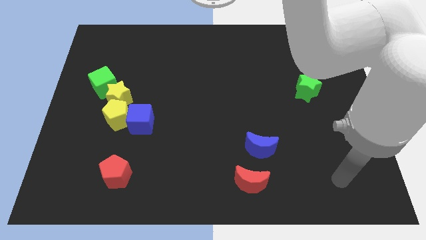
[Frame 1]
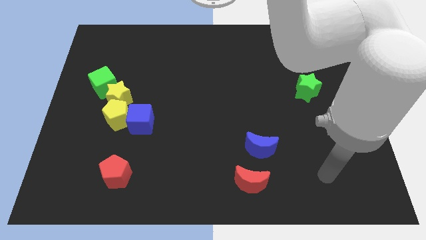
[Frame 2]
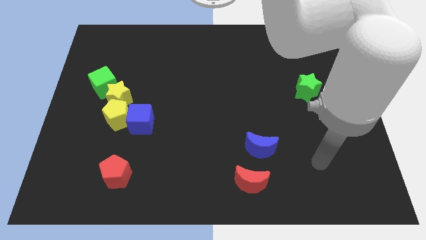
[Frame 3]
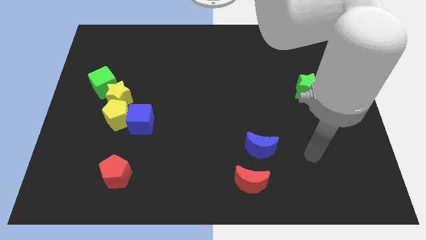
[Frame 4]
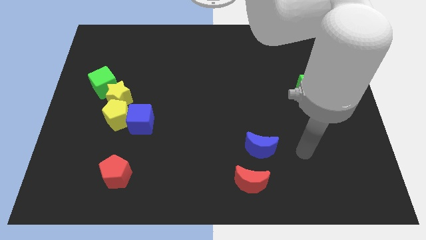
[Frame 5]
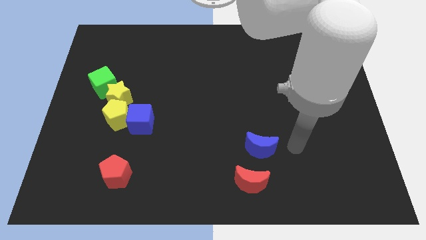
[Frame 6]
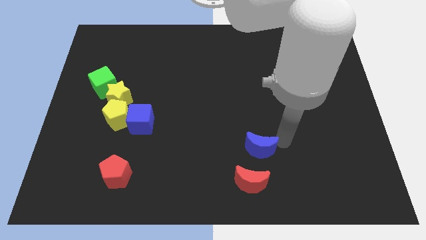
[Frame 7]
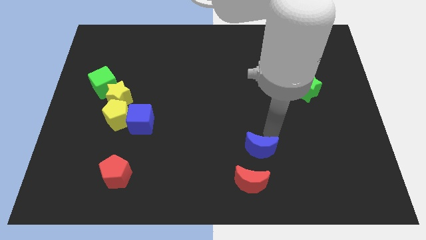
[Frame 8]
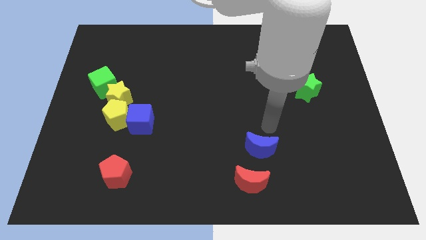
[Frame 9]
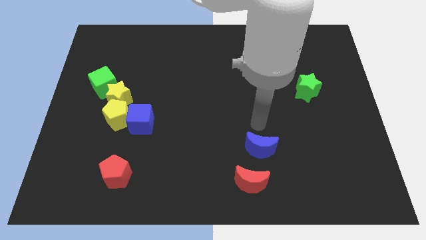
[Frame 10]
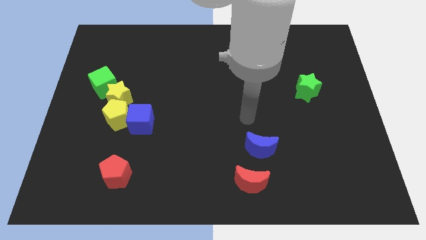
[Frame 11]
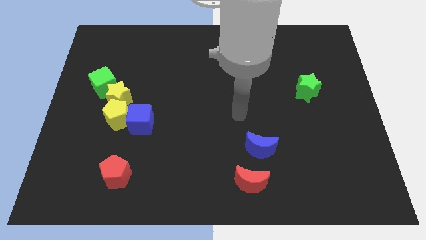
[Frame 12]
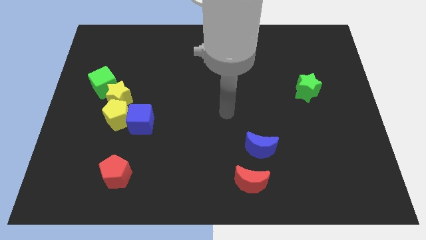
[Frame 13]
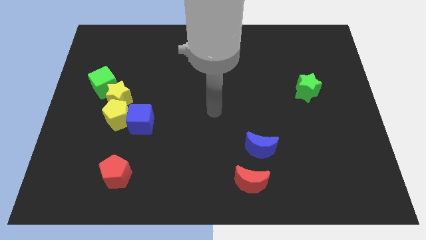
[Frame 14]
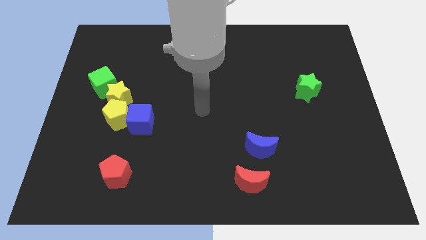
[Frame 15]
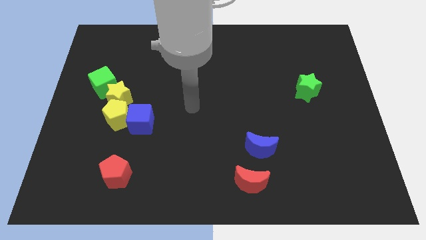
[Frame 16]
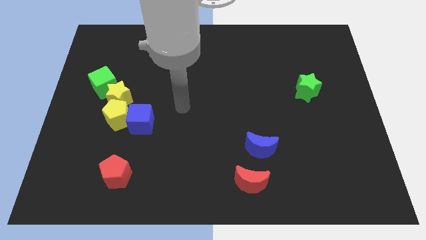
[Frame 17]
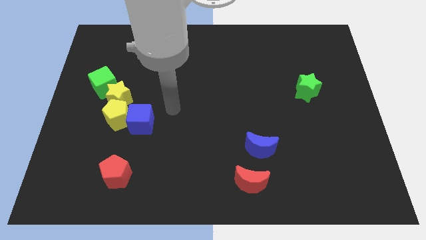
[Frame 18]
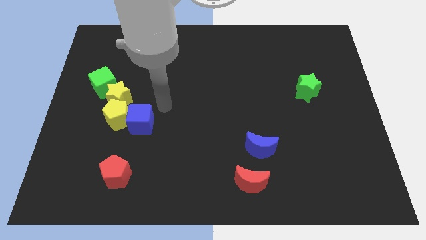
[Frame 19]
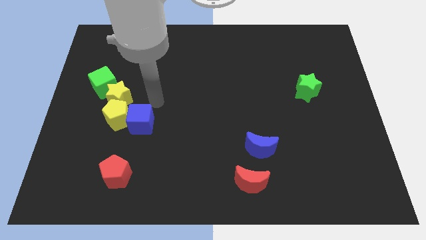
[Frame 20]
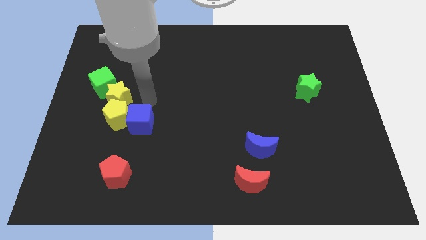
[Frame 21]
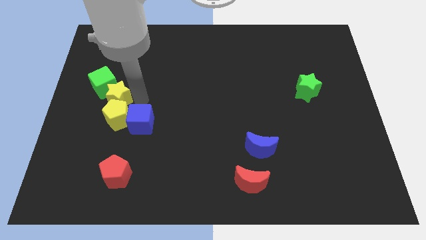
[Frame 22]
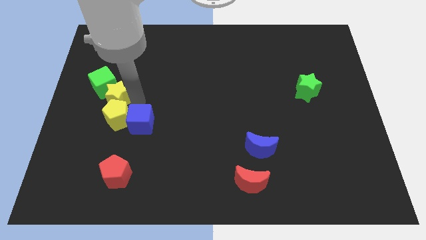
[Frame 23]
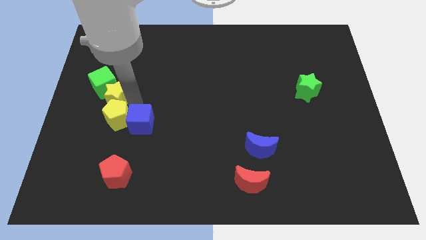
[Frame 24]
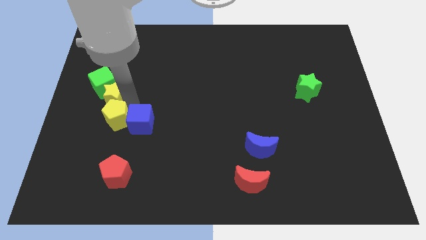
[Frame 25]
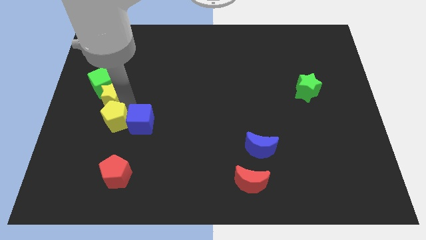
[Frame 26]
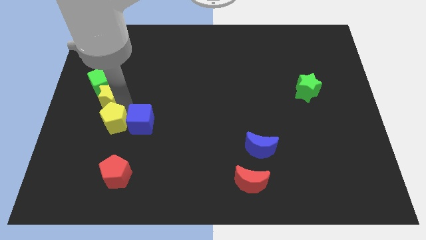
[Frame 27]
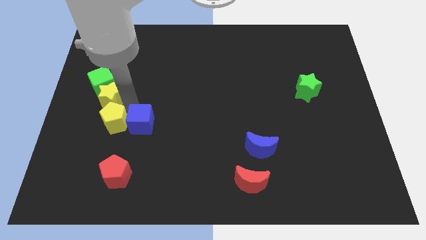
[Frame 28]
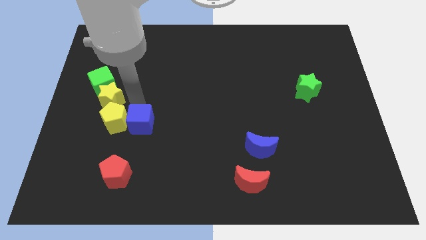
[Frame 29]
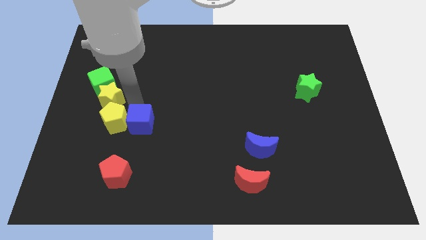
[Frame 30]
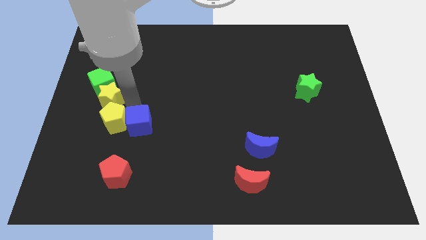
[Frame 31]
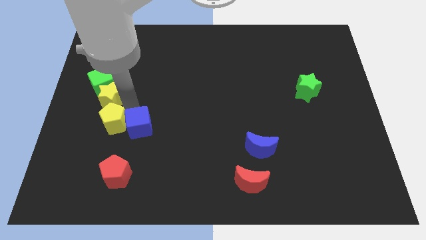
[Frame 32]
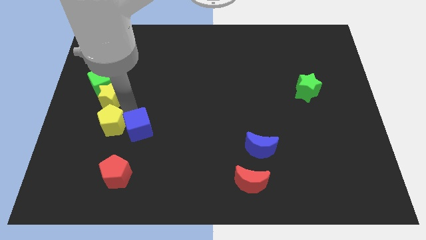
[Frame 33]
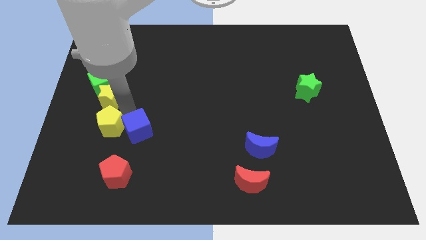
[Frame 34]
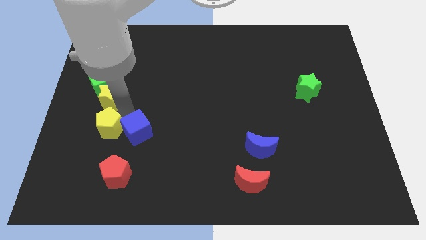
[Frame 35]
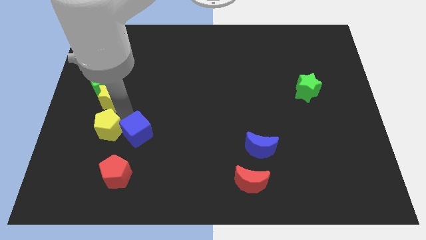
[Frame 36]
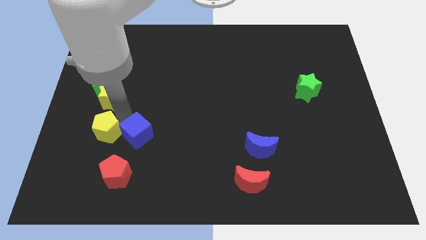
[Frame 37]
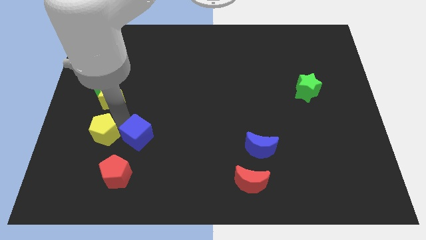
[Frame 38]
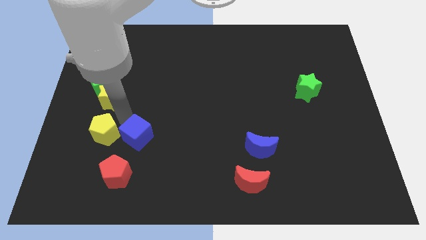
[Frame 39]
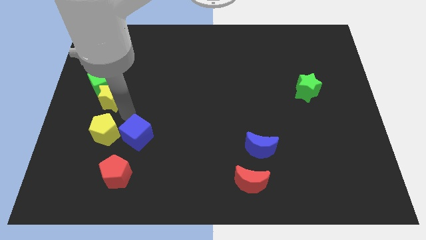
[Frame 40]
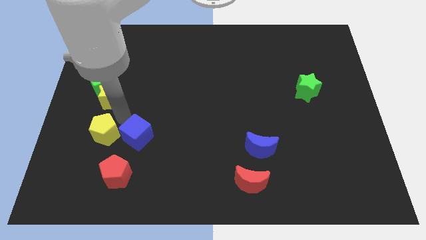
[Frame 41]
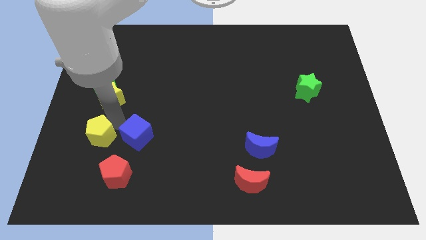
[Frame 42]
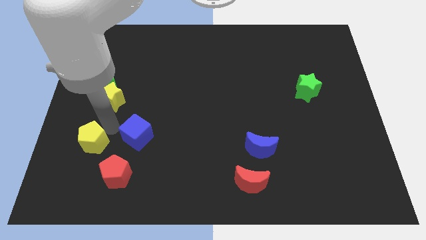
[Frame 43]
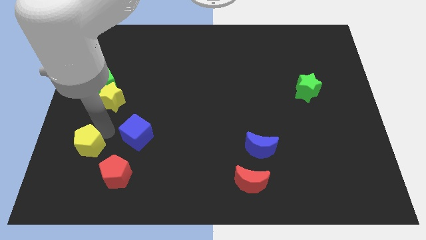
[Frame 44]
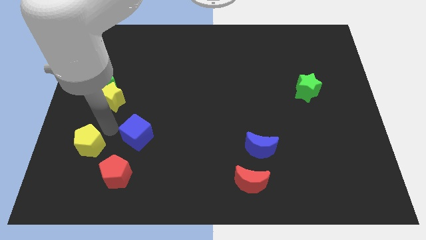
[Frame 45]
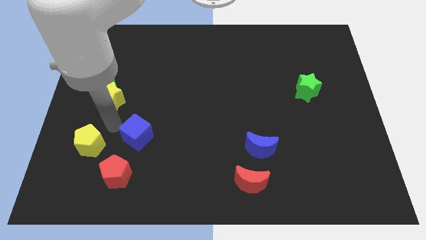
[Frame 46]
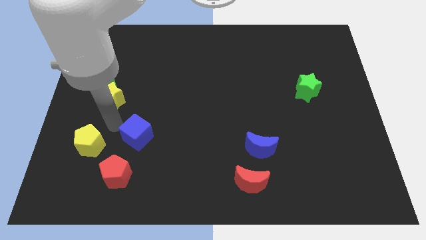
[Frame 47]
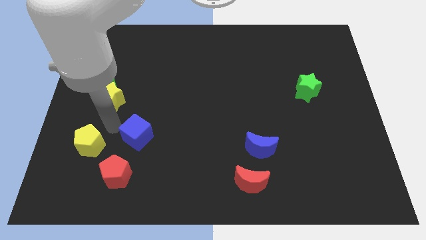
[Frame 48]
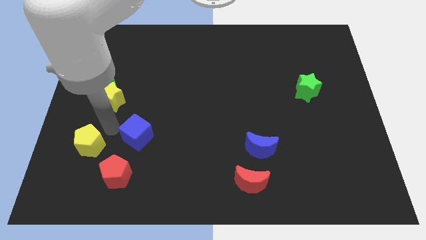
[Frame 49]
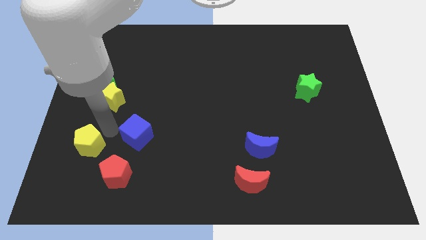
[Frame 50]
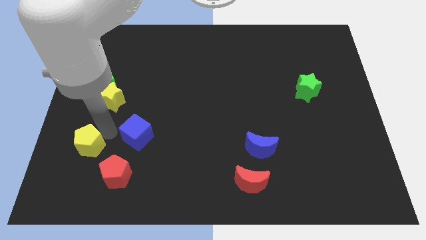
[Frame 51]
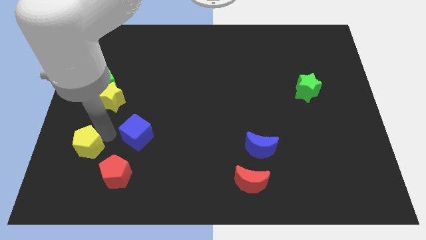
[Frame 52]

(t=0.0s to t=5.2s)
pull the yellow pentagon apart from the blue cube and yellow star

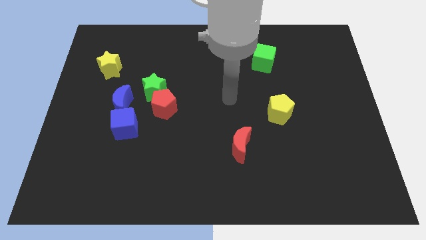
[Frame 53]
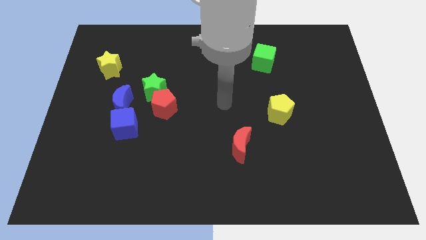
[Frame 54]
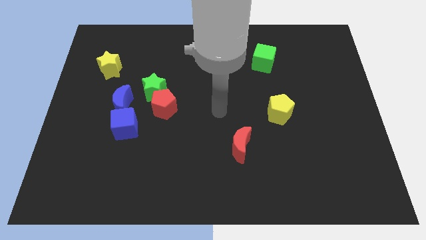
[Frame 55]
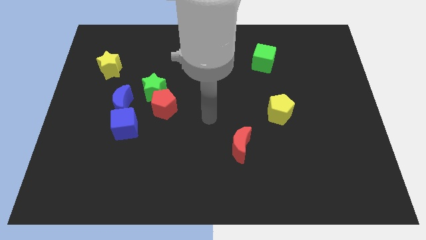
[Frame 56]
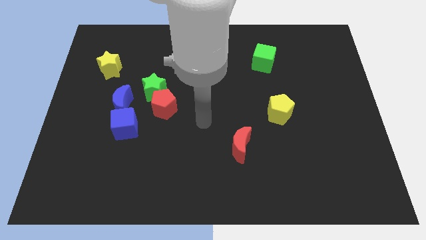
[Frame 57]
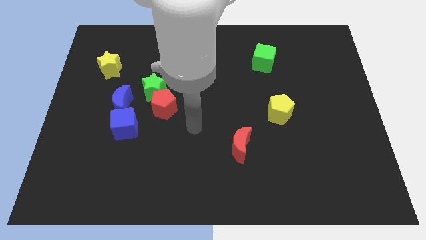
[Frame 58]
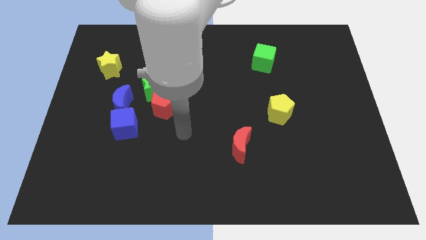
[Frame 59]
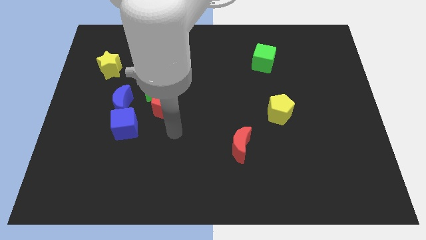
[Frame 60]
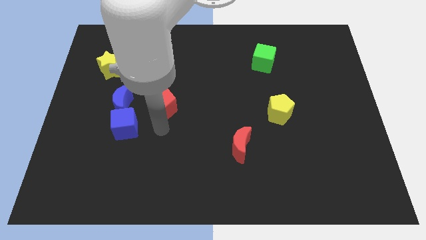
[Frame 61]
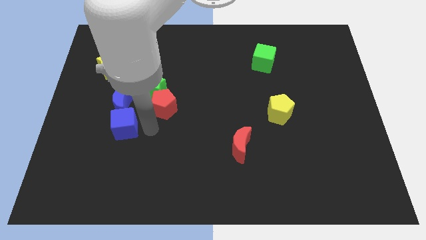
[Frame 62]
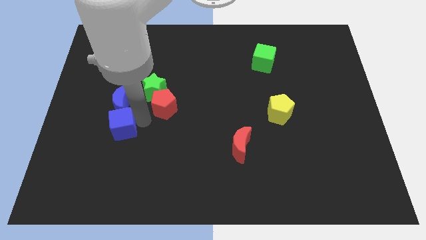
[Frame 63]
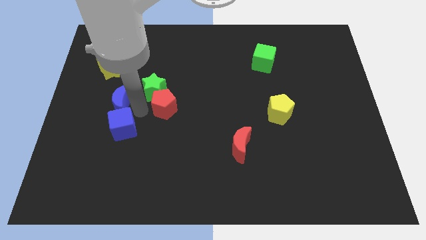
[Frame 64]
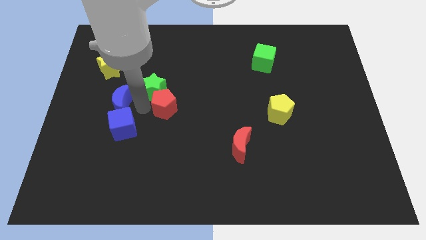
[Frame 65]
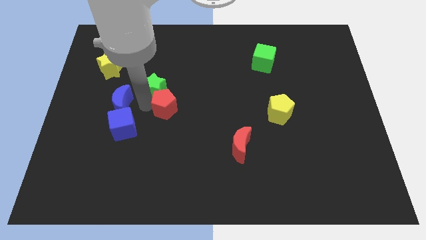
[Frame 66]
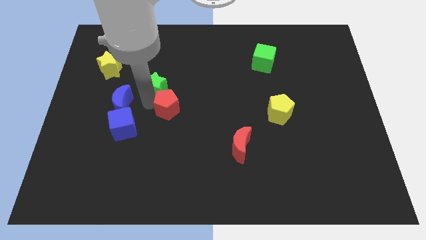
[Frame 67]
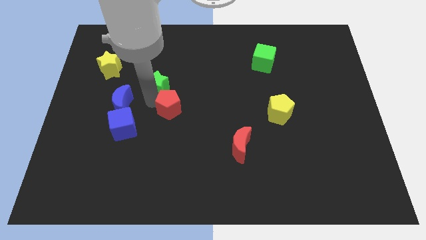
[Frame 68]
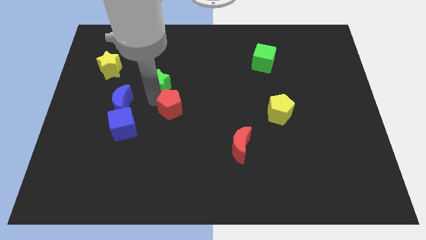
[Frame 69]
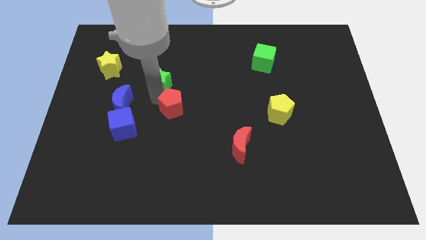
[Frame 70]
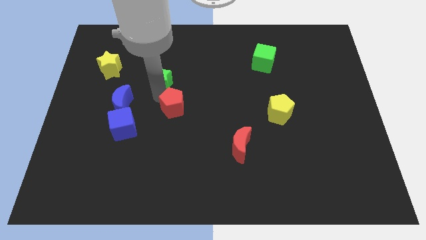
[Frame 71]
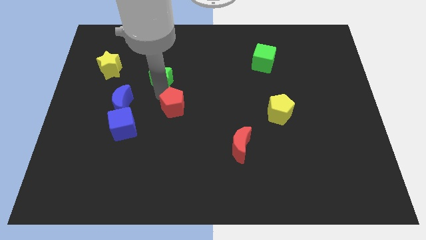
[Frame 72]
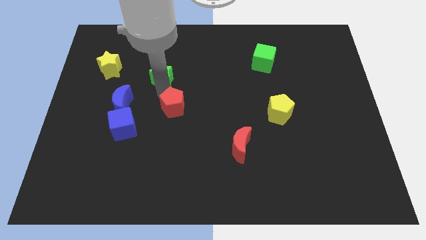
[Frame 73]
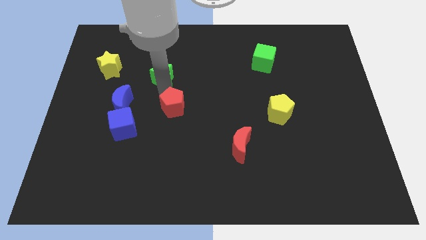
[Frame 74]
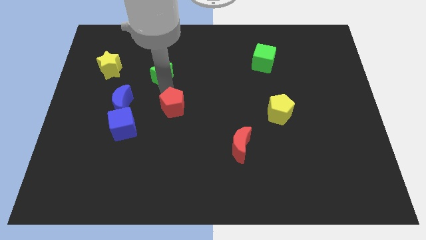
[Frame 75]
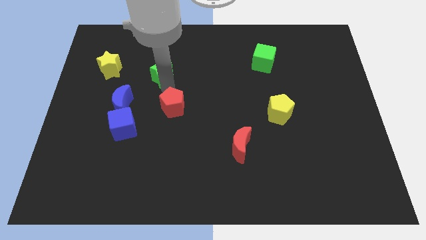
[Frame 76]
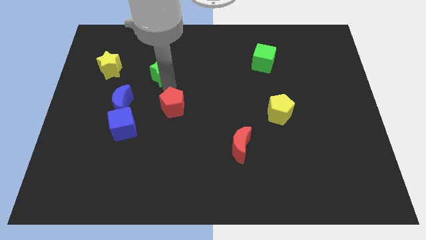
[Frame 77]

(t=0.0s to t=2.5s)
move the green star away from the red pentagon and blue moon

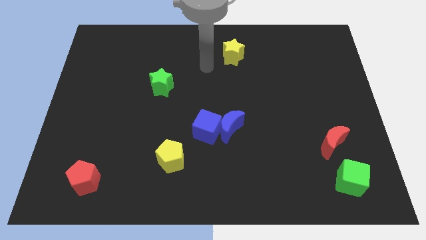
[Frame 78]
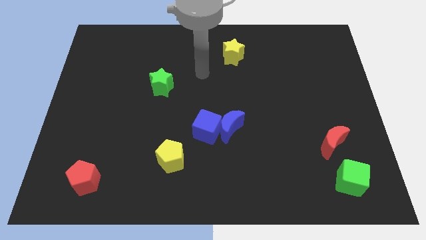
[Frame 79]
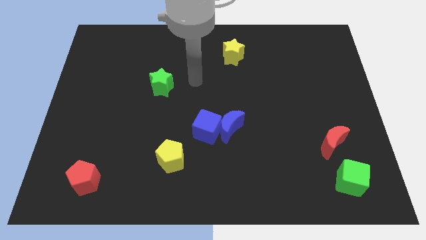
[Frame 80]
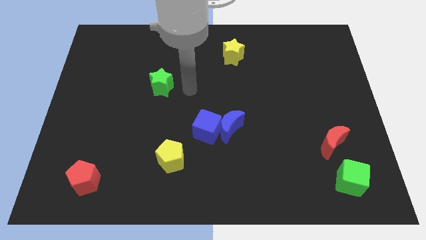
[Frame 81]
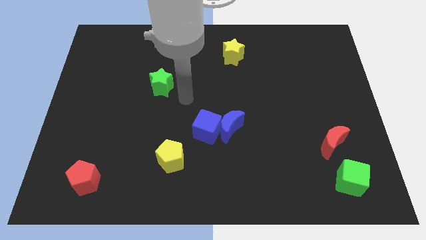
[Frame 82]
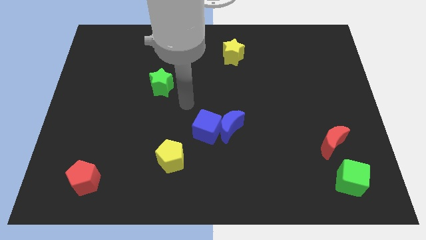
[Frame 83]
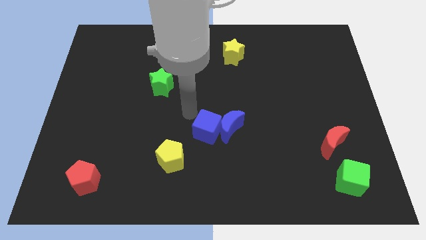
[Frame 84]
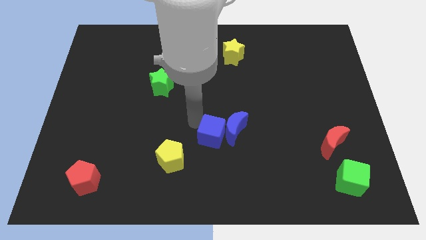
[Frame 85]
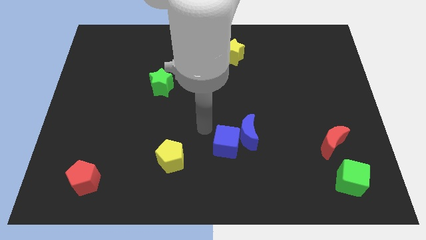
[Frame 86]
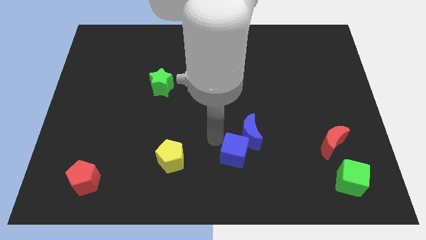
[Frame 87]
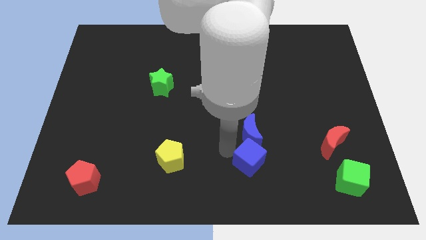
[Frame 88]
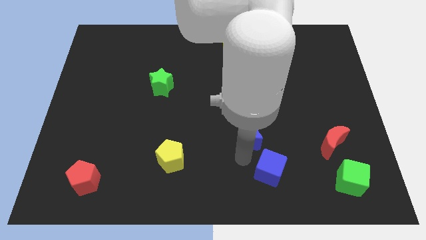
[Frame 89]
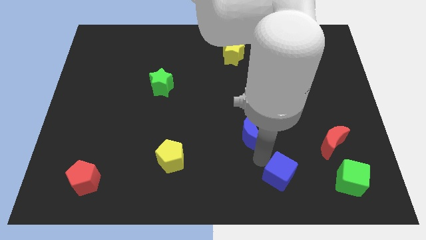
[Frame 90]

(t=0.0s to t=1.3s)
move the blue moon away from the blue cube

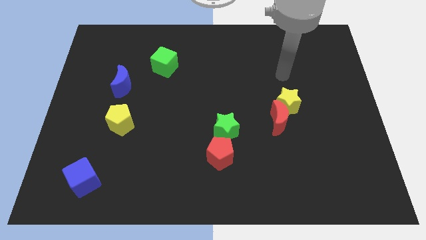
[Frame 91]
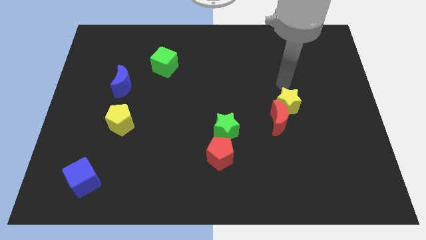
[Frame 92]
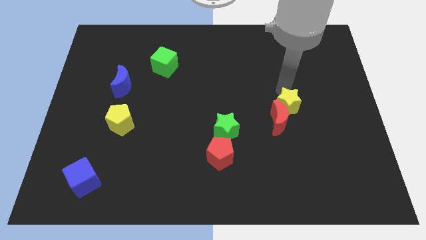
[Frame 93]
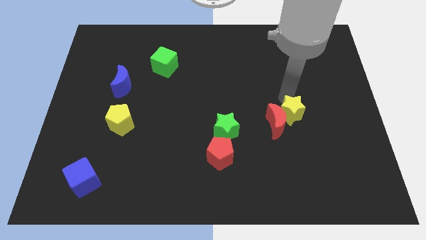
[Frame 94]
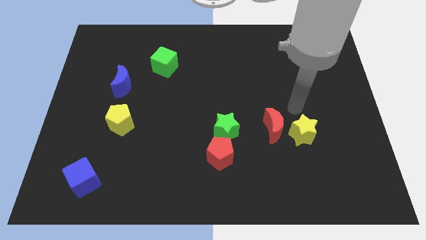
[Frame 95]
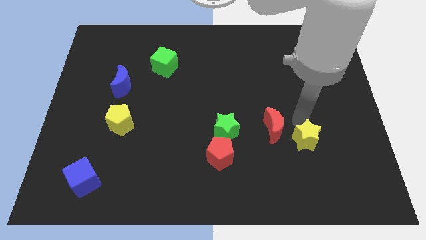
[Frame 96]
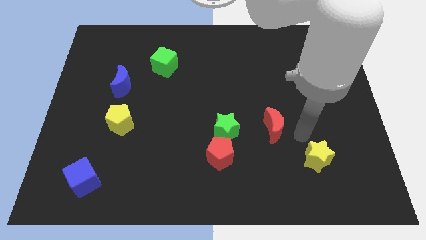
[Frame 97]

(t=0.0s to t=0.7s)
pull the red moon apart from the yellow star
